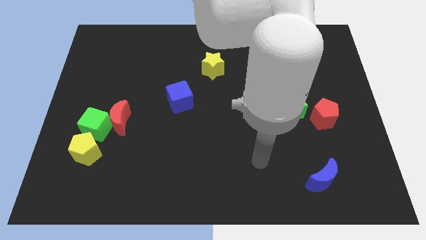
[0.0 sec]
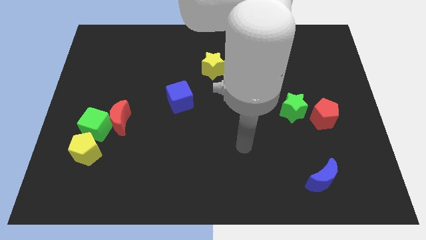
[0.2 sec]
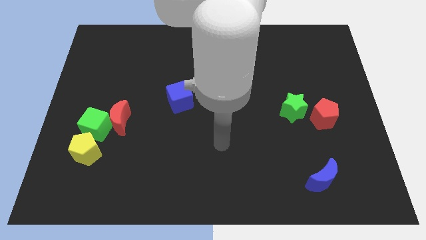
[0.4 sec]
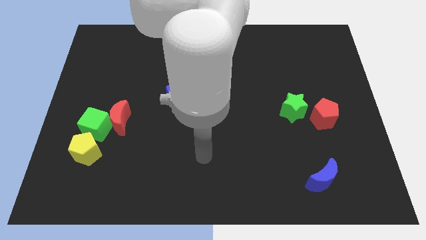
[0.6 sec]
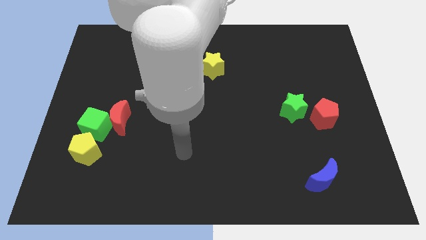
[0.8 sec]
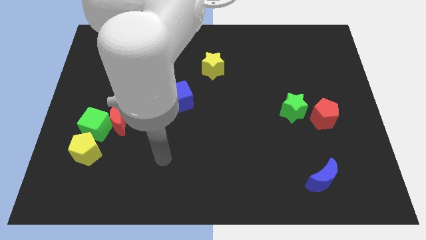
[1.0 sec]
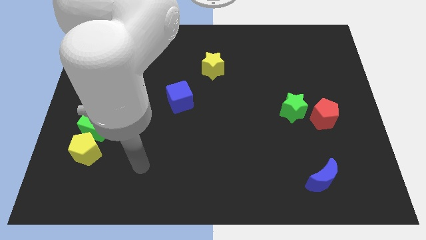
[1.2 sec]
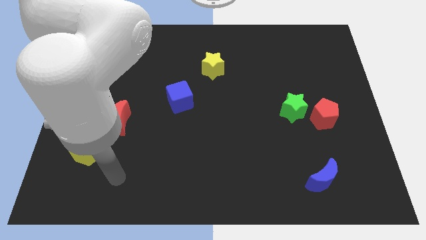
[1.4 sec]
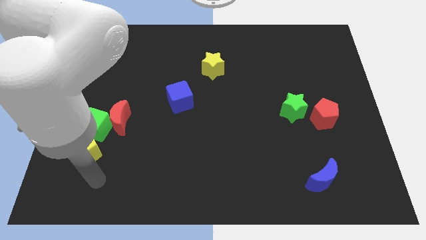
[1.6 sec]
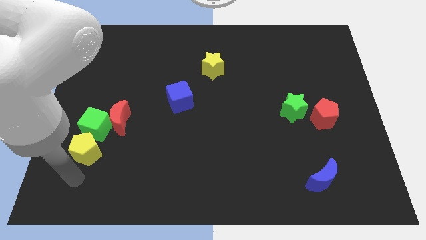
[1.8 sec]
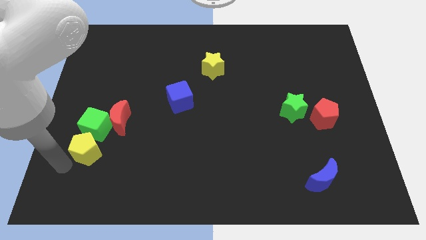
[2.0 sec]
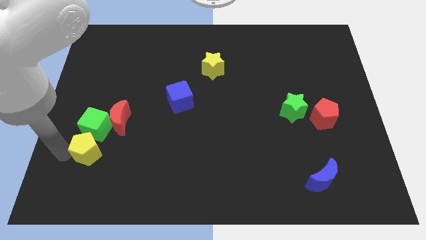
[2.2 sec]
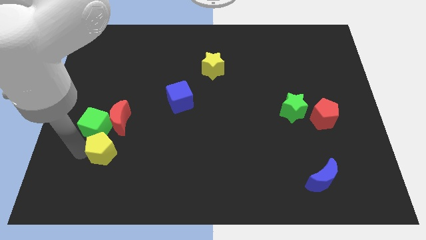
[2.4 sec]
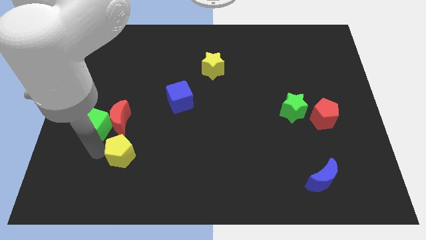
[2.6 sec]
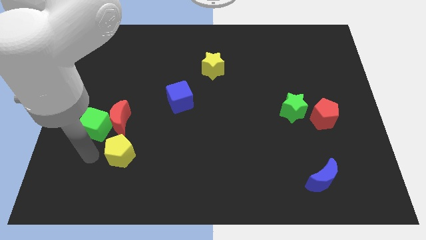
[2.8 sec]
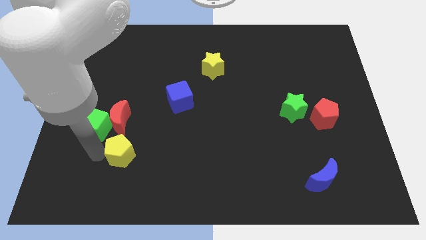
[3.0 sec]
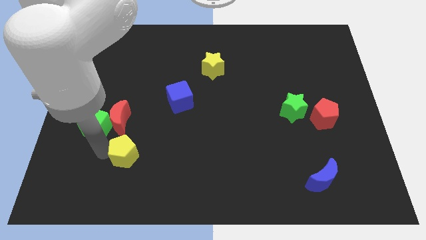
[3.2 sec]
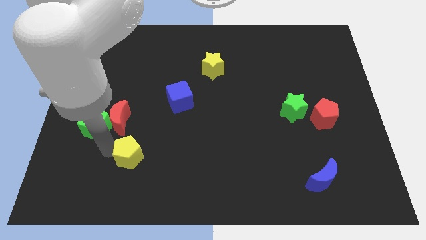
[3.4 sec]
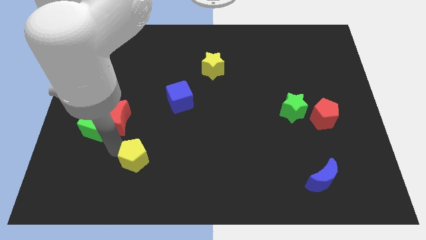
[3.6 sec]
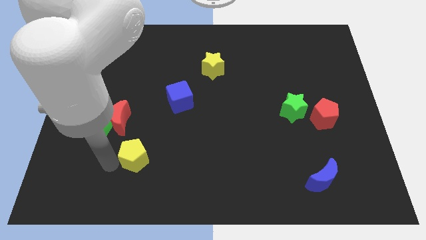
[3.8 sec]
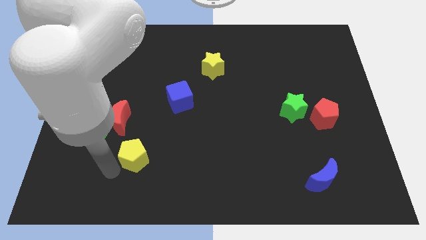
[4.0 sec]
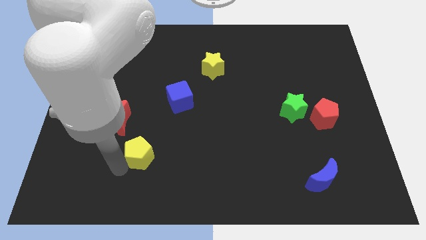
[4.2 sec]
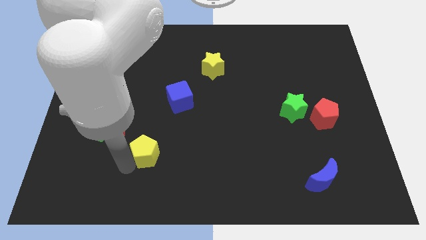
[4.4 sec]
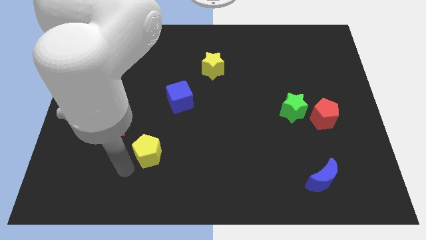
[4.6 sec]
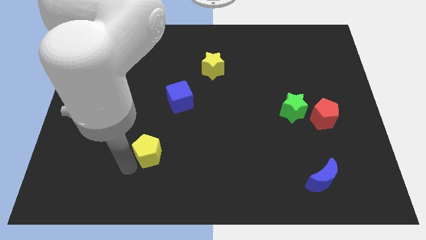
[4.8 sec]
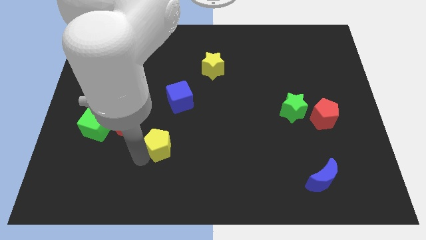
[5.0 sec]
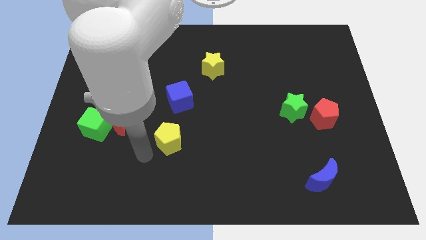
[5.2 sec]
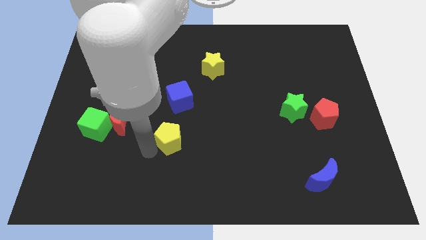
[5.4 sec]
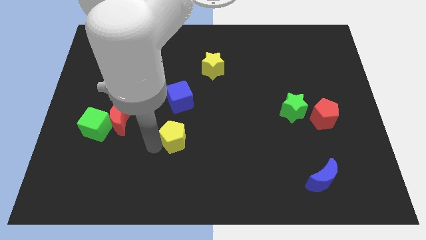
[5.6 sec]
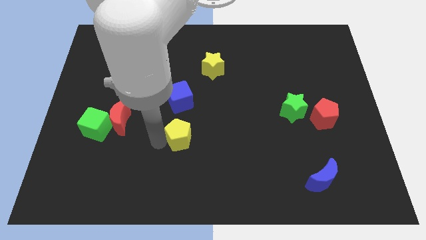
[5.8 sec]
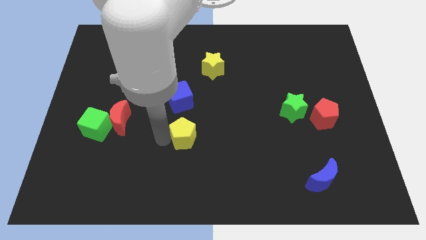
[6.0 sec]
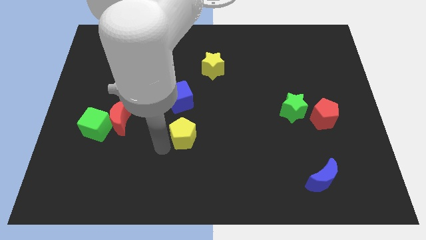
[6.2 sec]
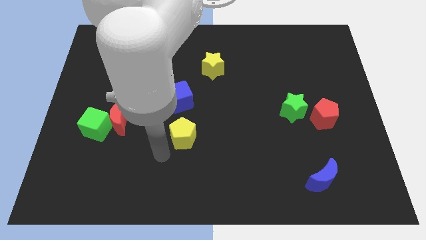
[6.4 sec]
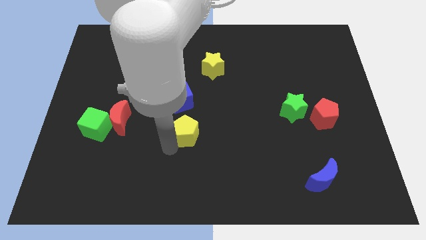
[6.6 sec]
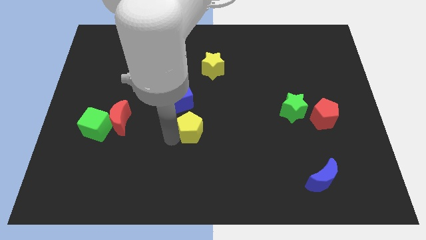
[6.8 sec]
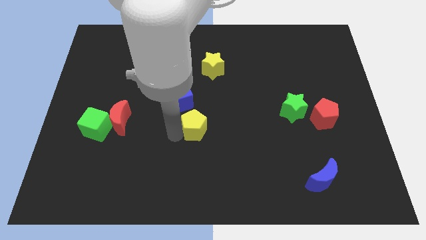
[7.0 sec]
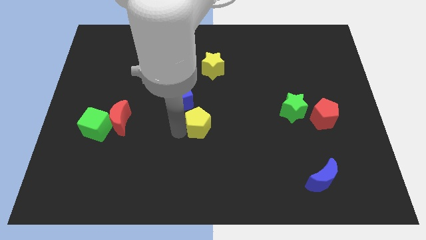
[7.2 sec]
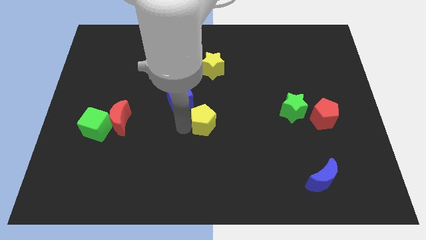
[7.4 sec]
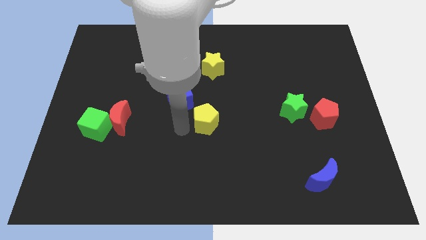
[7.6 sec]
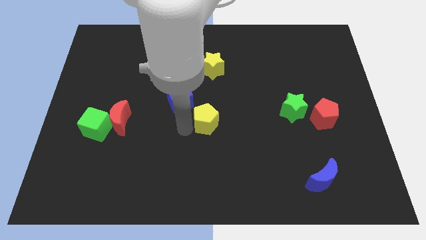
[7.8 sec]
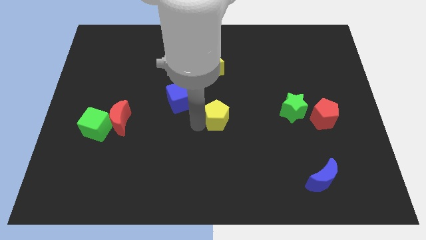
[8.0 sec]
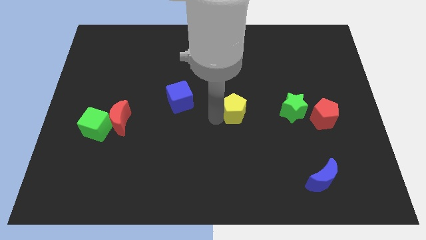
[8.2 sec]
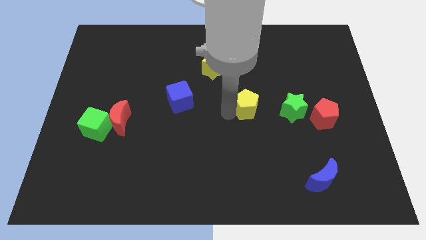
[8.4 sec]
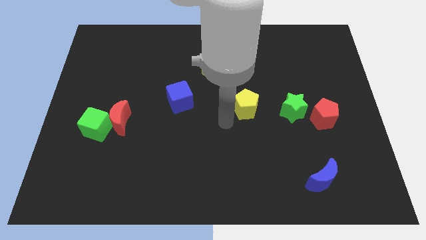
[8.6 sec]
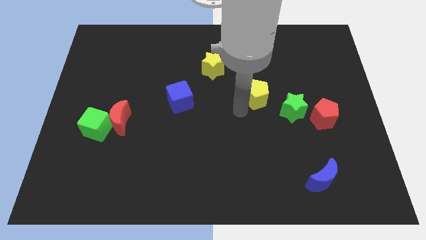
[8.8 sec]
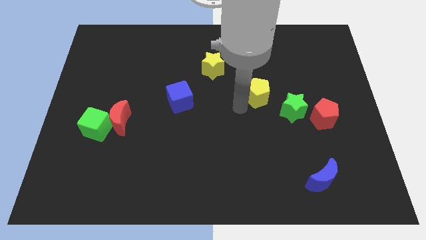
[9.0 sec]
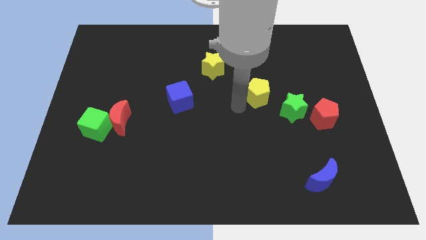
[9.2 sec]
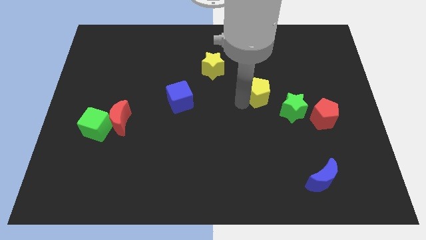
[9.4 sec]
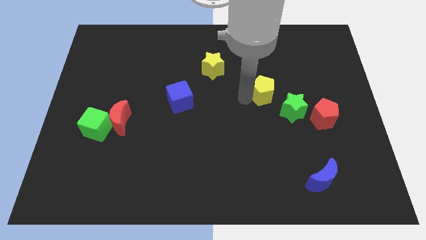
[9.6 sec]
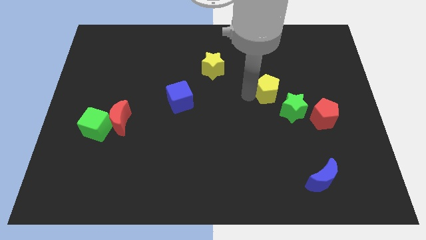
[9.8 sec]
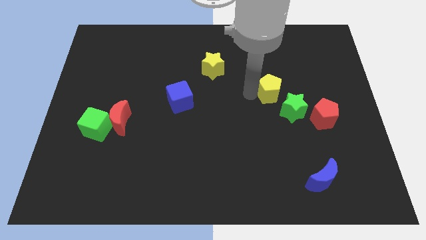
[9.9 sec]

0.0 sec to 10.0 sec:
move the yellow pentagon to the top side of the green star

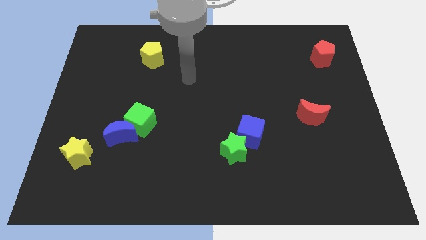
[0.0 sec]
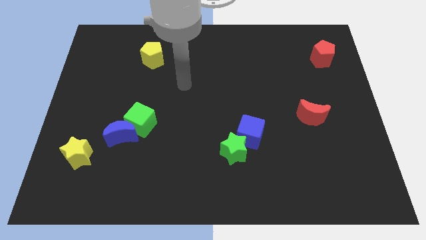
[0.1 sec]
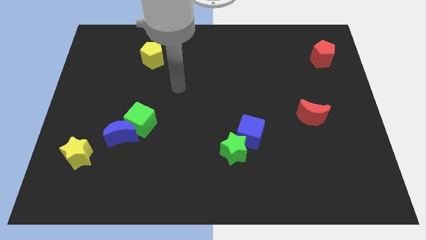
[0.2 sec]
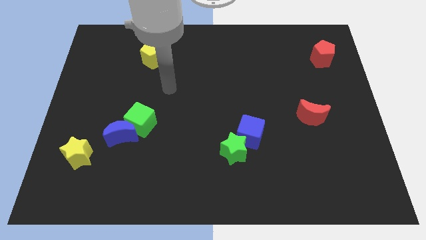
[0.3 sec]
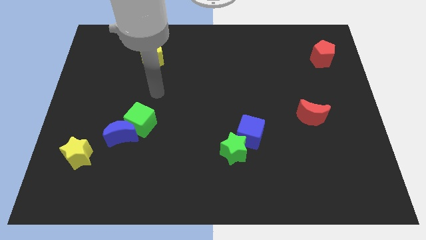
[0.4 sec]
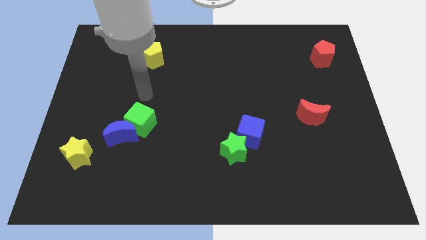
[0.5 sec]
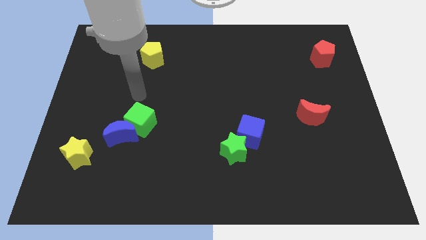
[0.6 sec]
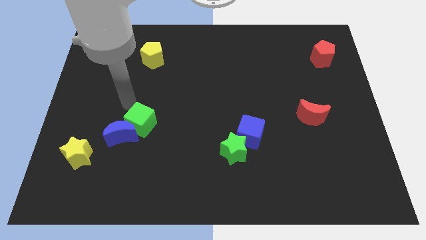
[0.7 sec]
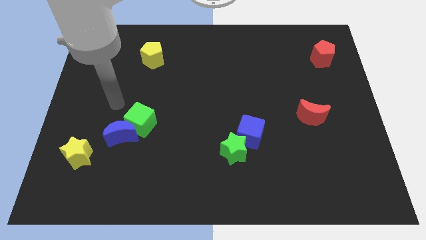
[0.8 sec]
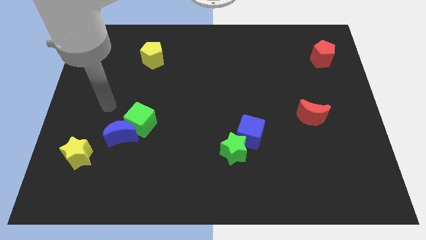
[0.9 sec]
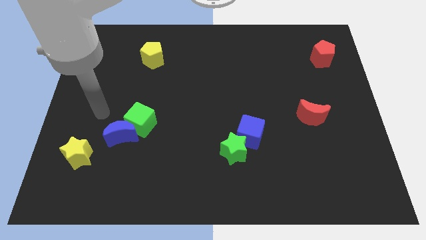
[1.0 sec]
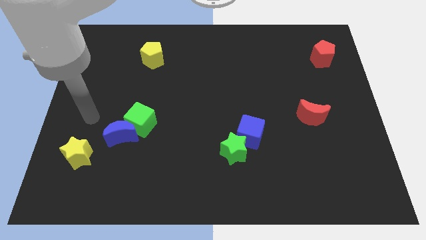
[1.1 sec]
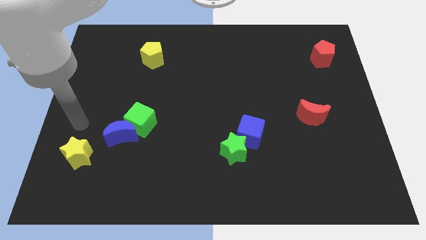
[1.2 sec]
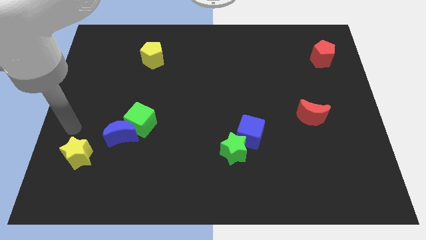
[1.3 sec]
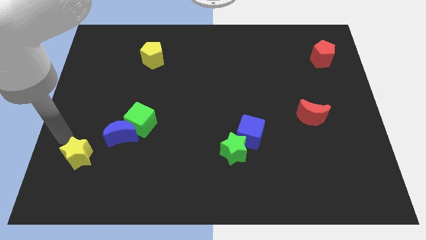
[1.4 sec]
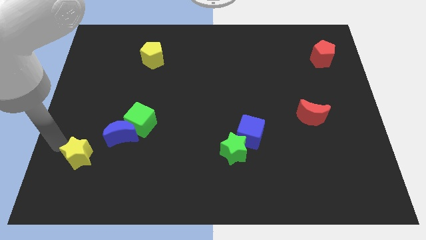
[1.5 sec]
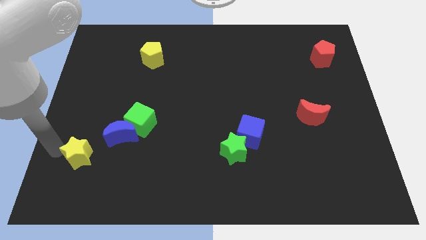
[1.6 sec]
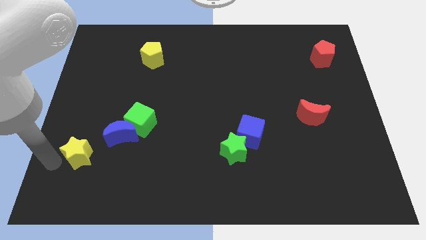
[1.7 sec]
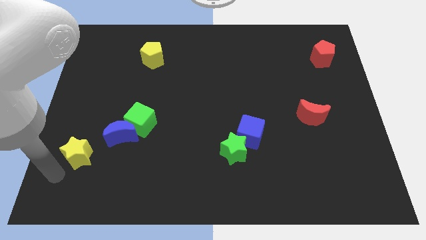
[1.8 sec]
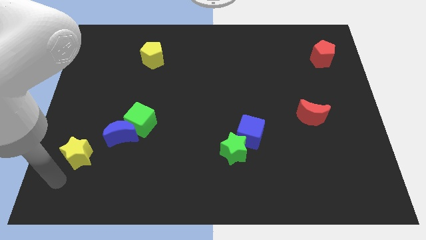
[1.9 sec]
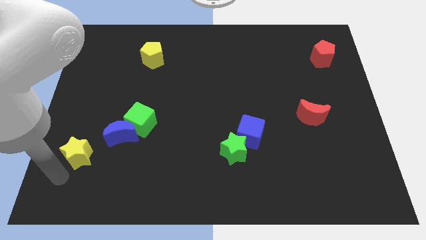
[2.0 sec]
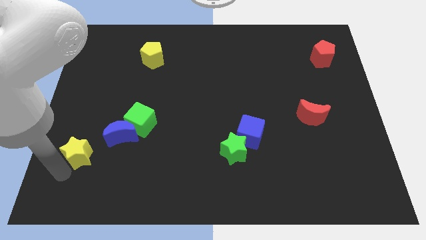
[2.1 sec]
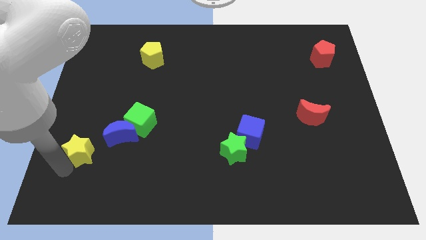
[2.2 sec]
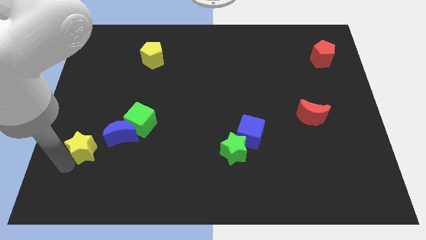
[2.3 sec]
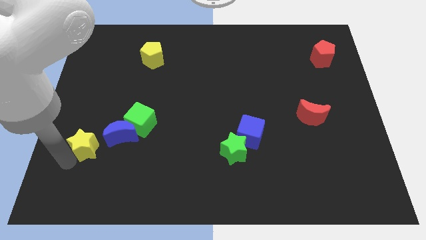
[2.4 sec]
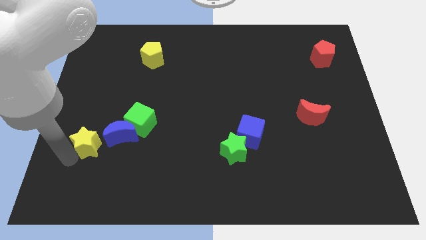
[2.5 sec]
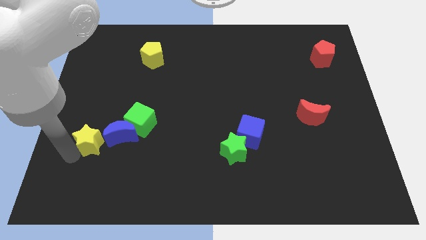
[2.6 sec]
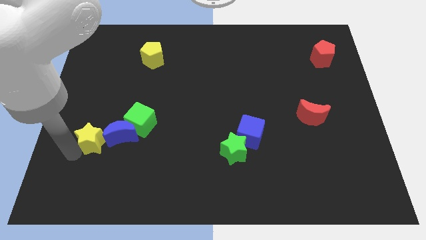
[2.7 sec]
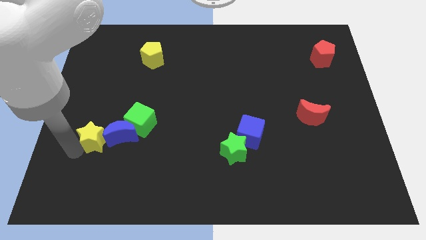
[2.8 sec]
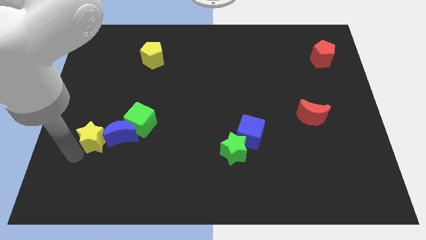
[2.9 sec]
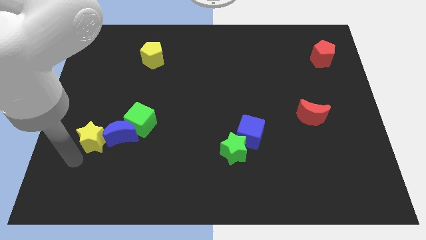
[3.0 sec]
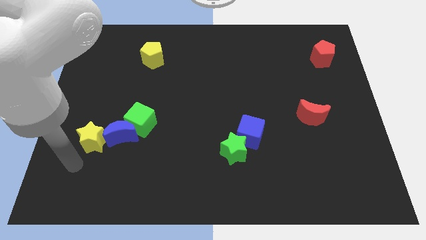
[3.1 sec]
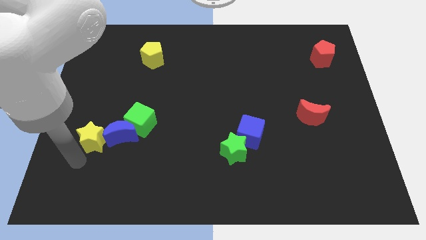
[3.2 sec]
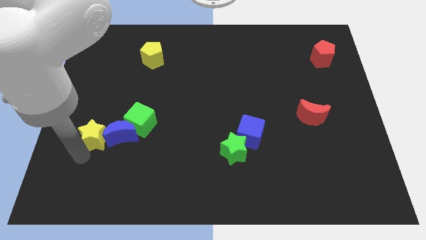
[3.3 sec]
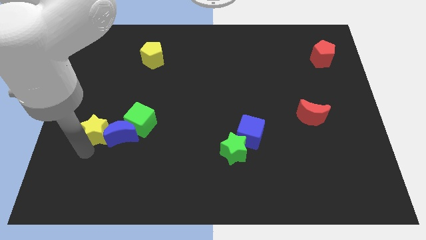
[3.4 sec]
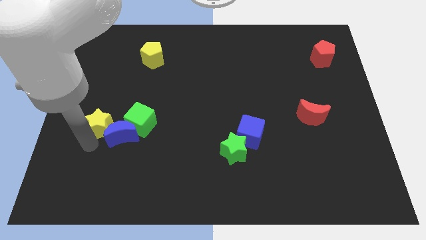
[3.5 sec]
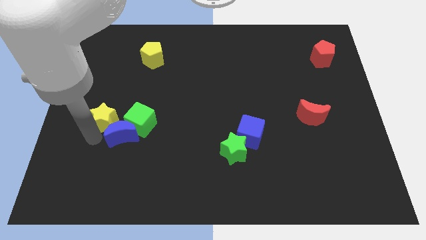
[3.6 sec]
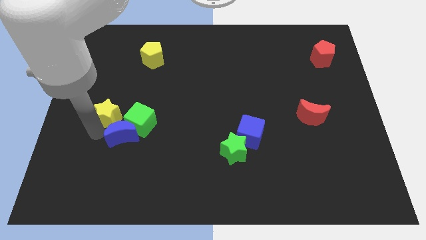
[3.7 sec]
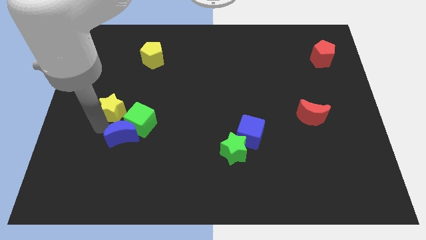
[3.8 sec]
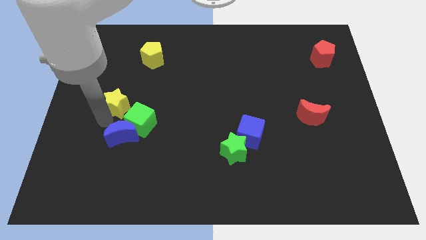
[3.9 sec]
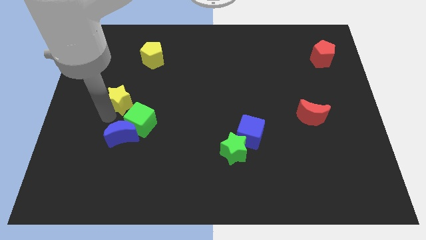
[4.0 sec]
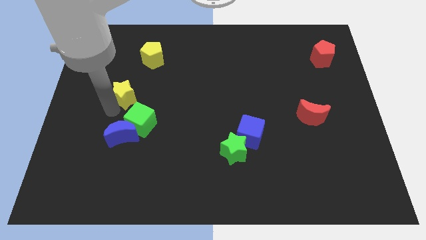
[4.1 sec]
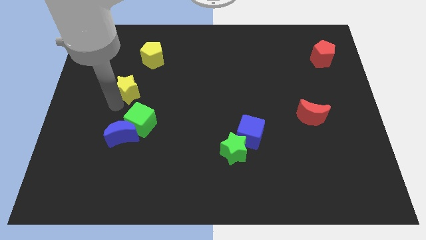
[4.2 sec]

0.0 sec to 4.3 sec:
slide the yellow star to the top of the green cube
